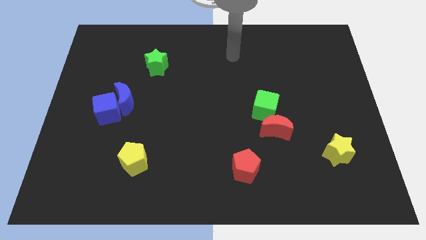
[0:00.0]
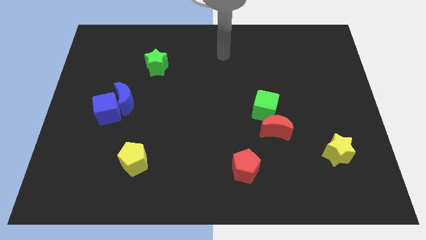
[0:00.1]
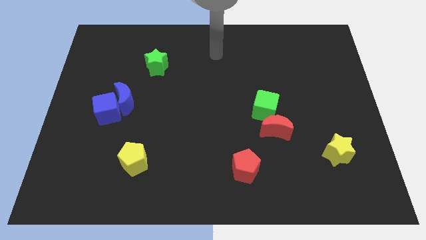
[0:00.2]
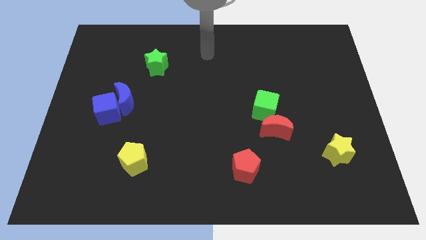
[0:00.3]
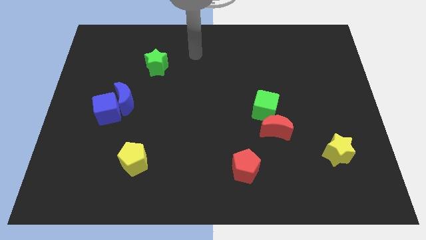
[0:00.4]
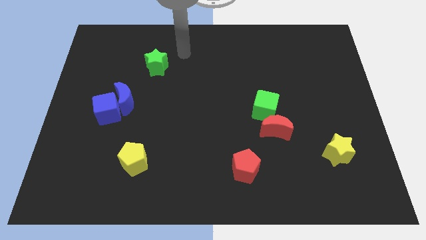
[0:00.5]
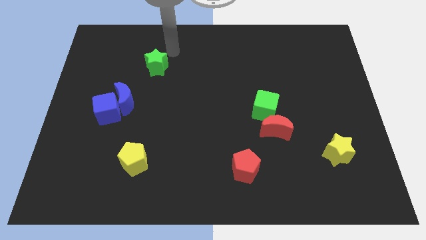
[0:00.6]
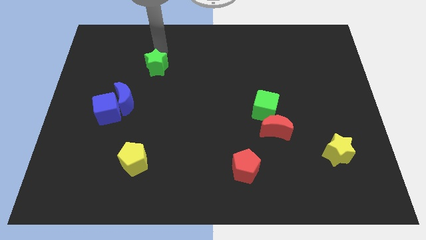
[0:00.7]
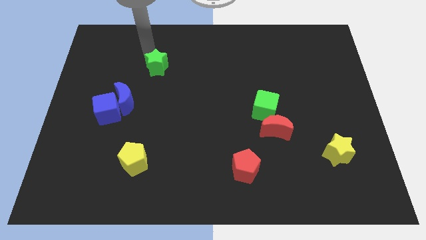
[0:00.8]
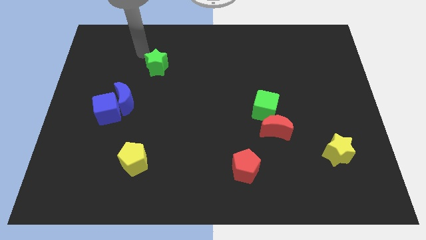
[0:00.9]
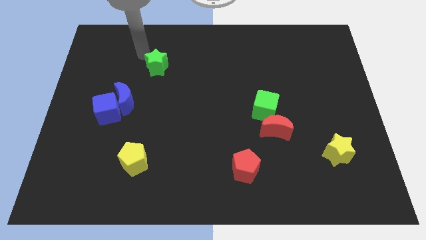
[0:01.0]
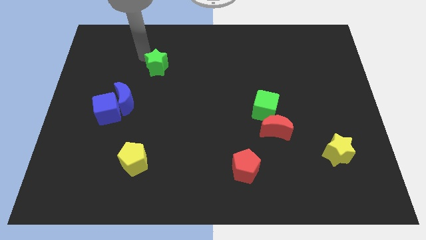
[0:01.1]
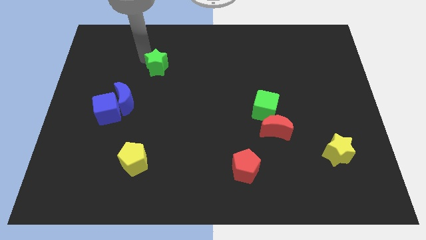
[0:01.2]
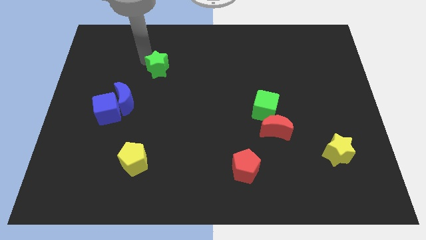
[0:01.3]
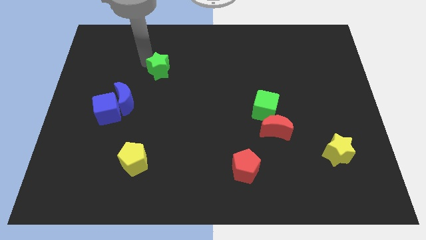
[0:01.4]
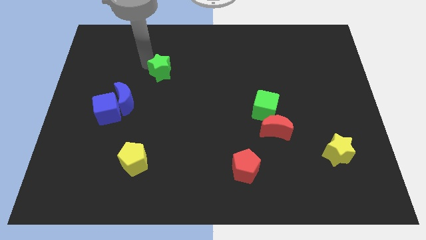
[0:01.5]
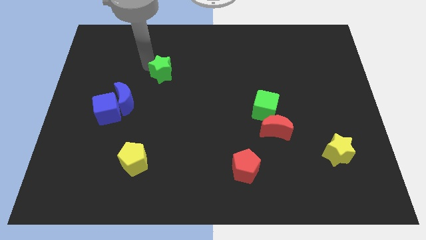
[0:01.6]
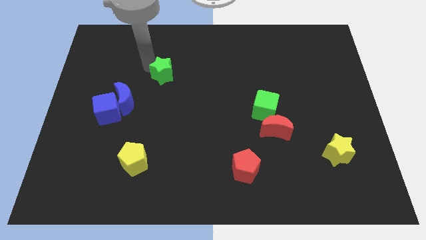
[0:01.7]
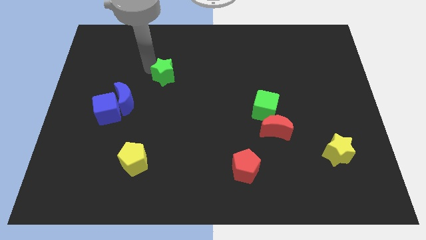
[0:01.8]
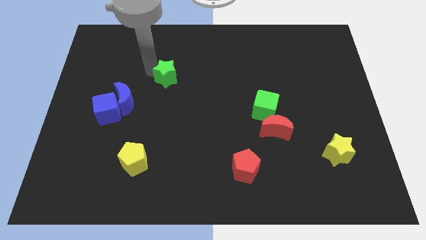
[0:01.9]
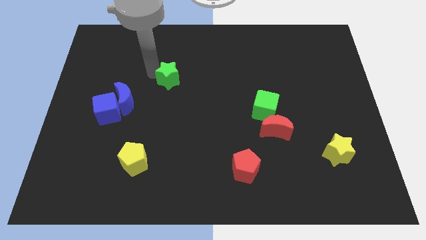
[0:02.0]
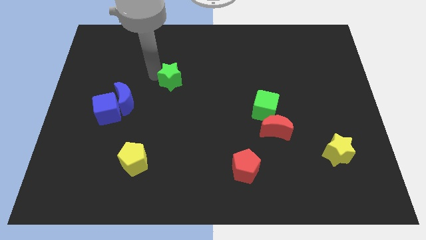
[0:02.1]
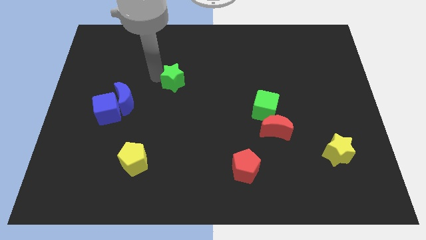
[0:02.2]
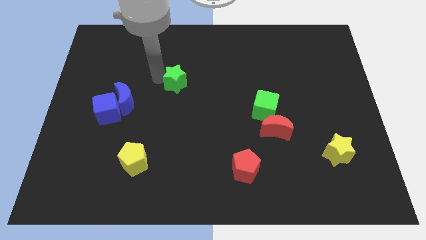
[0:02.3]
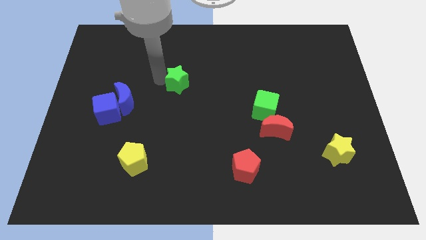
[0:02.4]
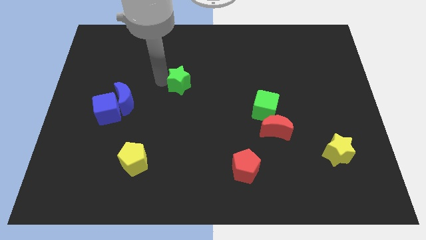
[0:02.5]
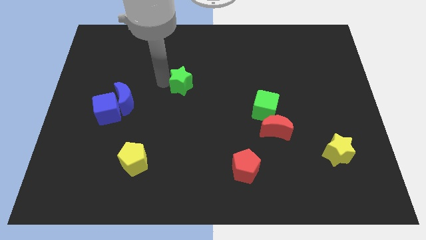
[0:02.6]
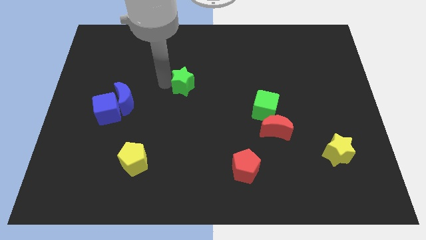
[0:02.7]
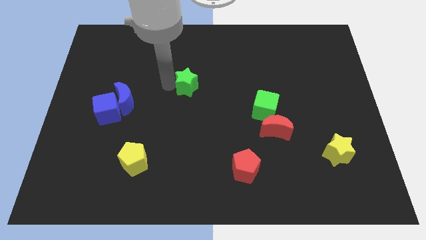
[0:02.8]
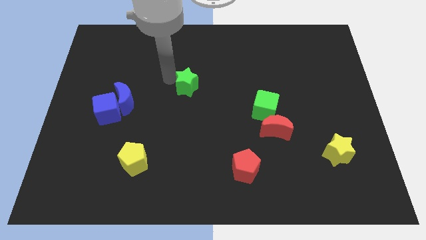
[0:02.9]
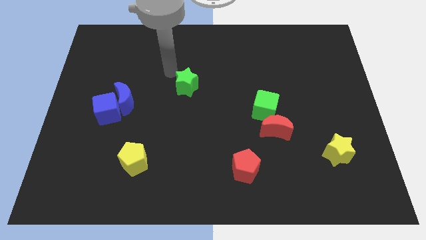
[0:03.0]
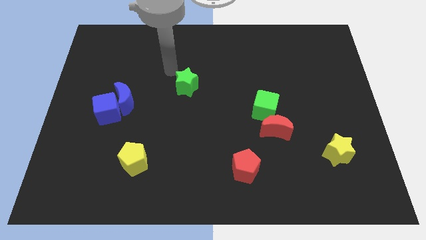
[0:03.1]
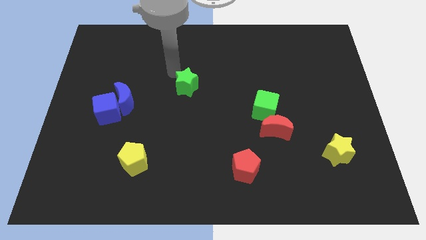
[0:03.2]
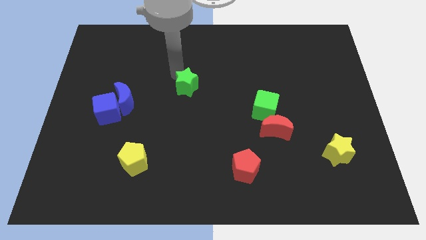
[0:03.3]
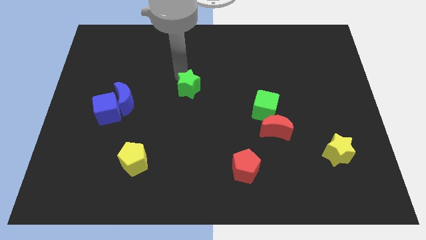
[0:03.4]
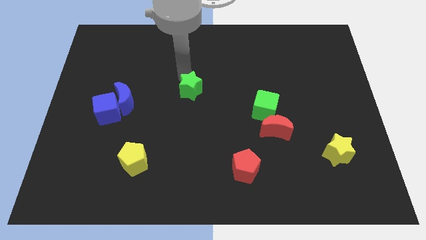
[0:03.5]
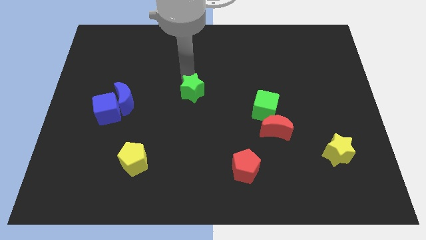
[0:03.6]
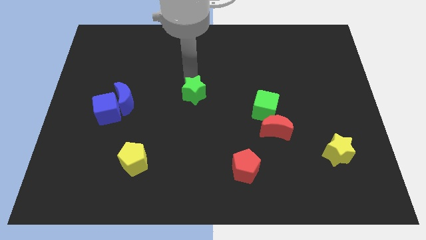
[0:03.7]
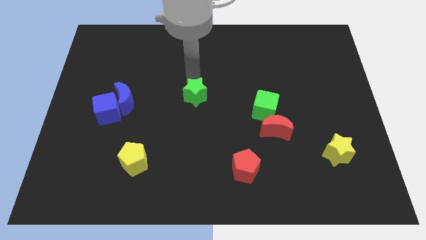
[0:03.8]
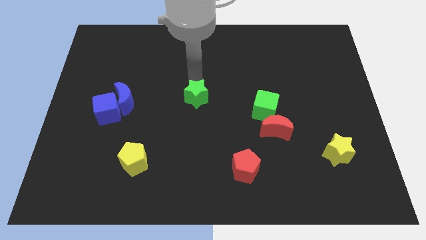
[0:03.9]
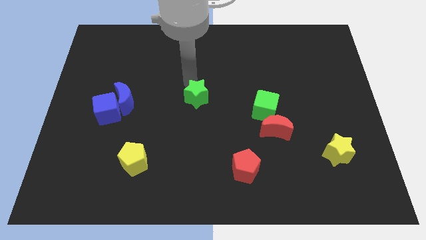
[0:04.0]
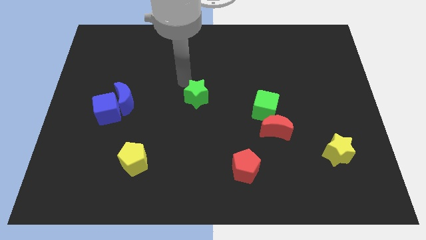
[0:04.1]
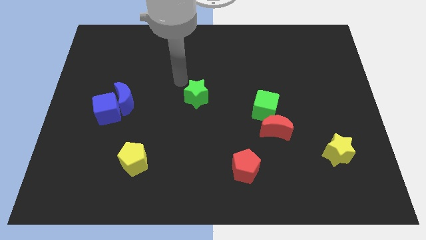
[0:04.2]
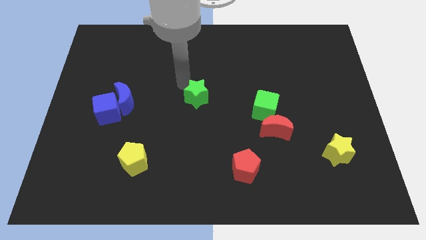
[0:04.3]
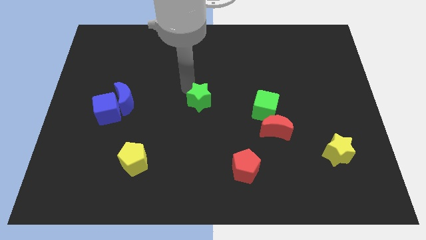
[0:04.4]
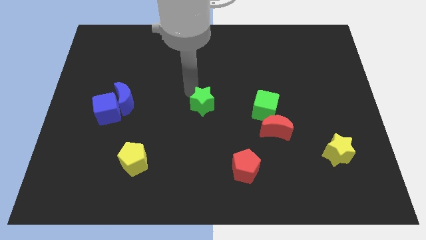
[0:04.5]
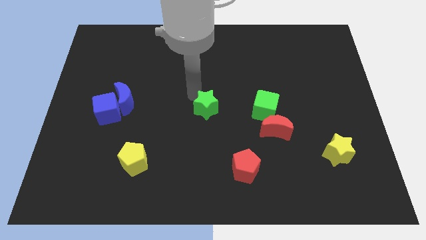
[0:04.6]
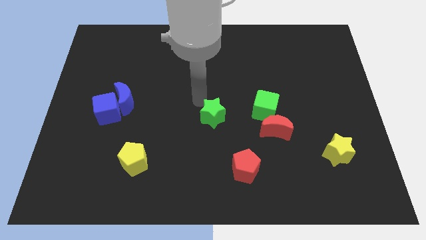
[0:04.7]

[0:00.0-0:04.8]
put the green star to the left of the red moon

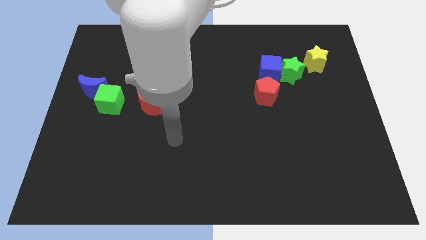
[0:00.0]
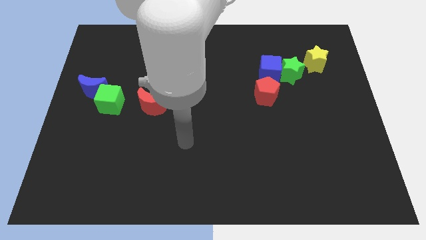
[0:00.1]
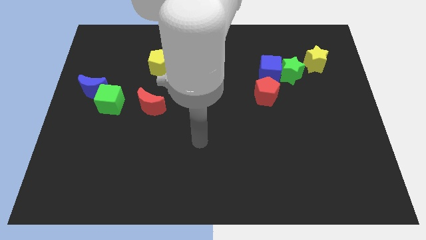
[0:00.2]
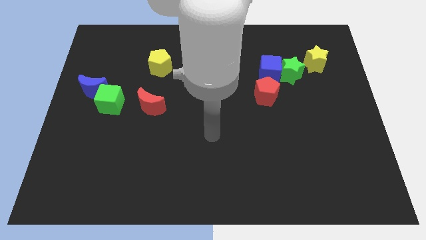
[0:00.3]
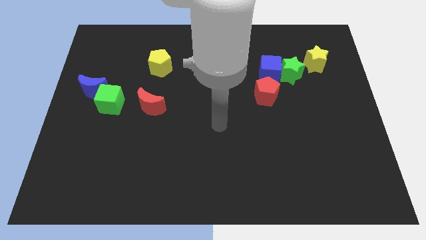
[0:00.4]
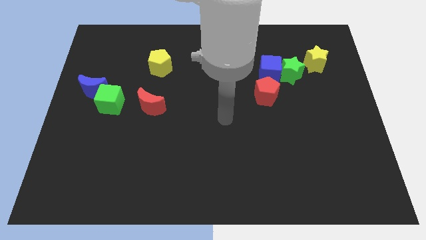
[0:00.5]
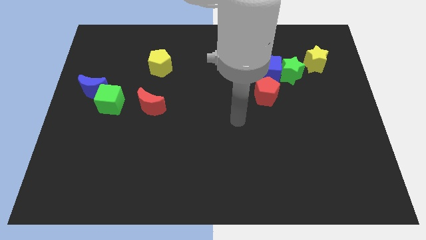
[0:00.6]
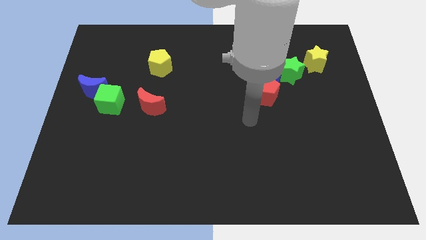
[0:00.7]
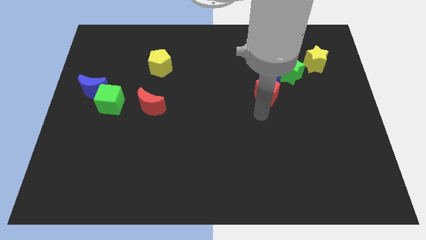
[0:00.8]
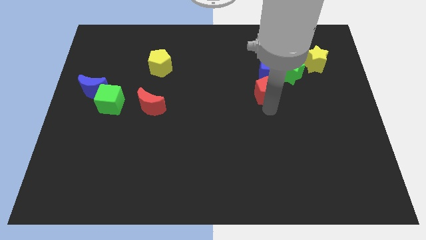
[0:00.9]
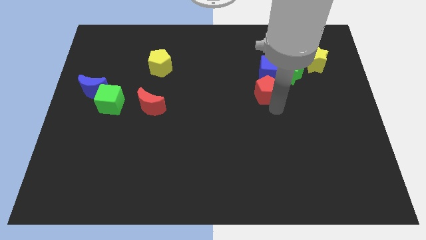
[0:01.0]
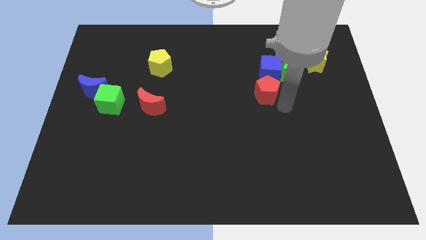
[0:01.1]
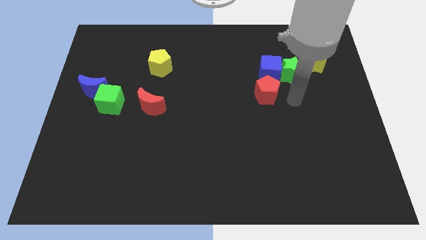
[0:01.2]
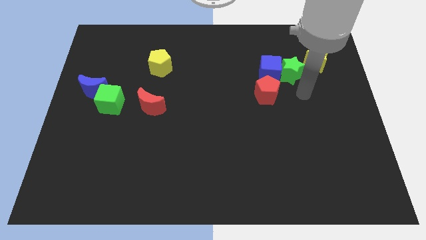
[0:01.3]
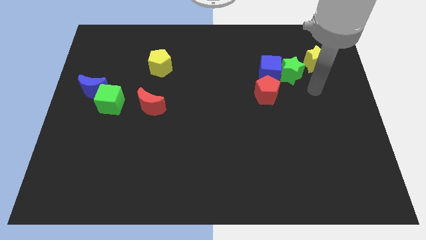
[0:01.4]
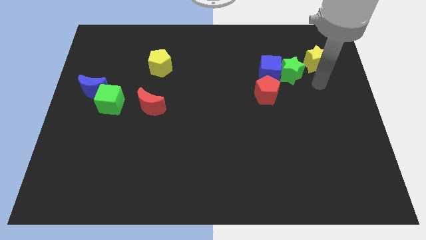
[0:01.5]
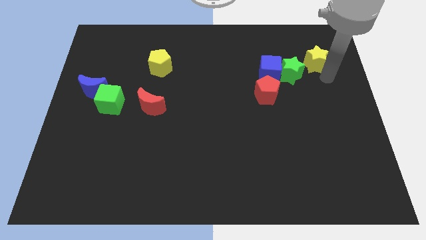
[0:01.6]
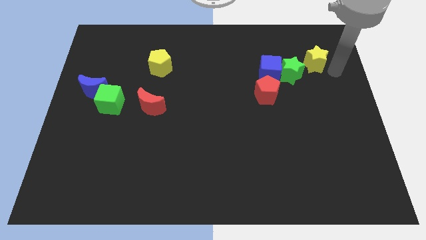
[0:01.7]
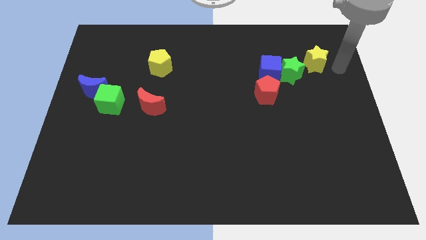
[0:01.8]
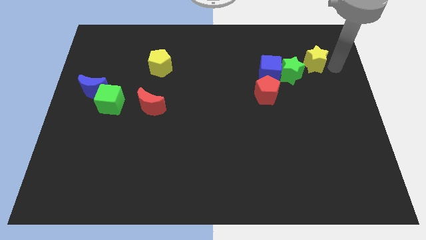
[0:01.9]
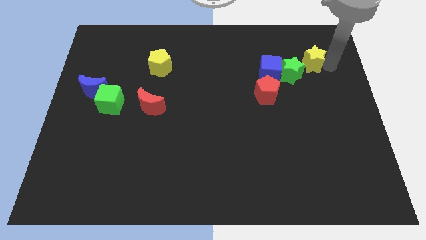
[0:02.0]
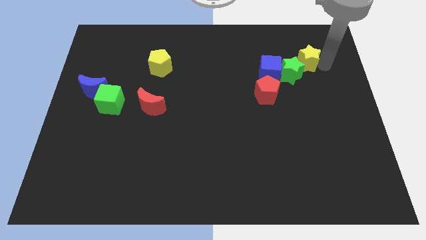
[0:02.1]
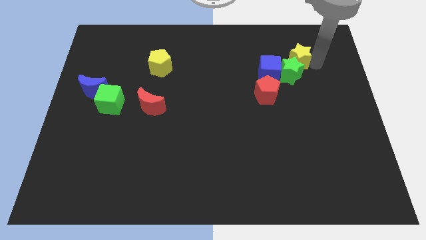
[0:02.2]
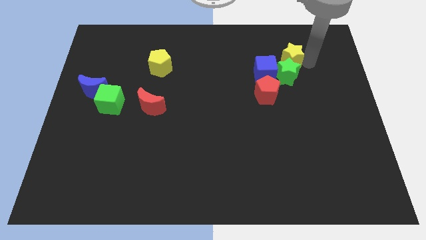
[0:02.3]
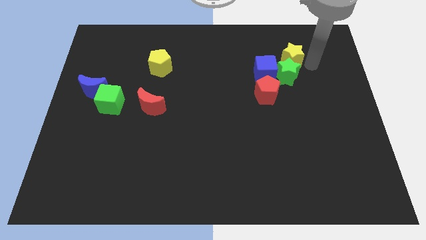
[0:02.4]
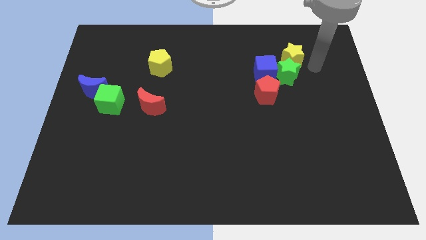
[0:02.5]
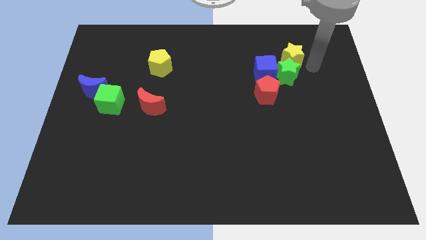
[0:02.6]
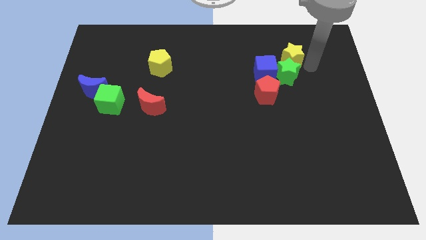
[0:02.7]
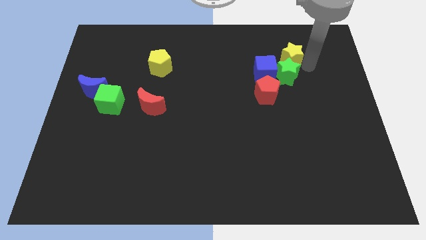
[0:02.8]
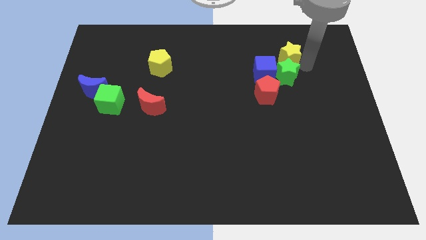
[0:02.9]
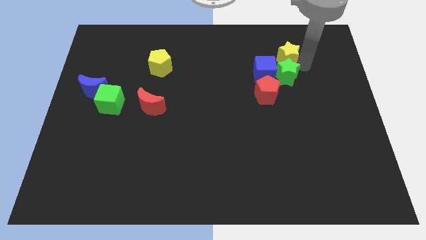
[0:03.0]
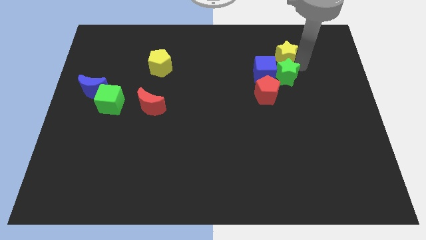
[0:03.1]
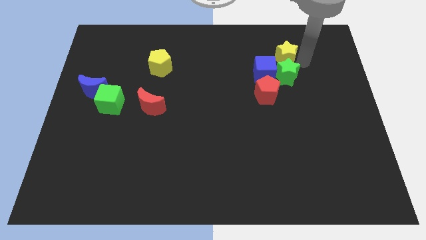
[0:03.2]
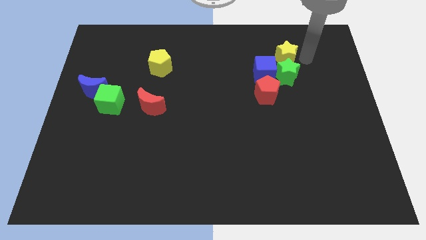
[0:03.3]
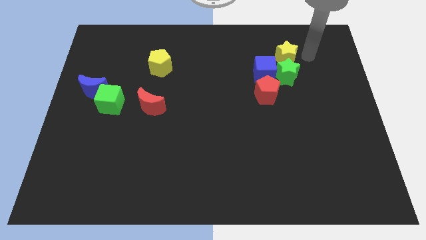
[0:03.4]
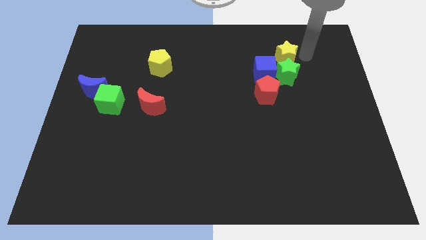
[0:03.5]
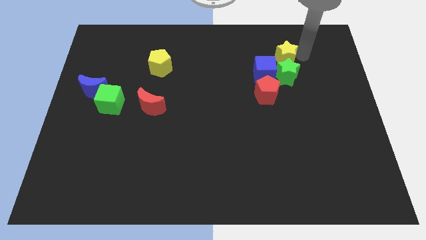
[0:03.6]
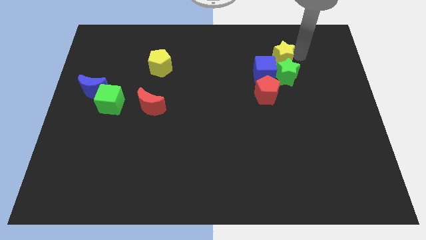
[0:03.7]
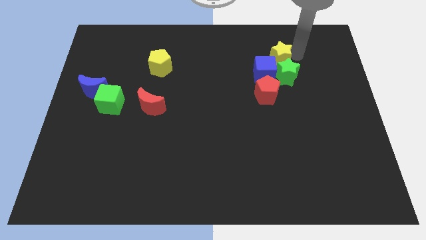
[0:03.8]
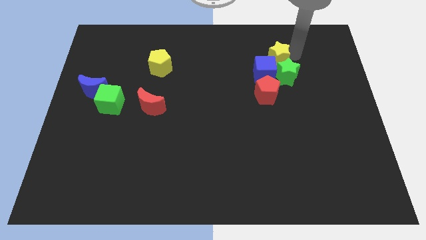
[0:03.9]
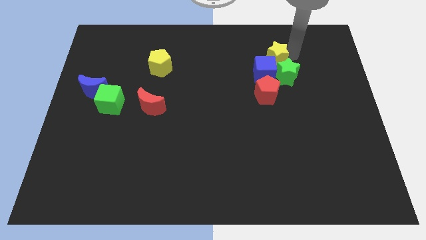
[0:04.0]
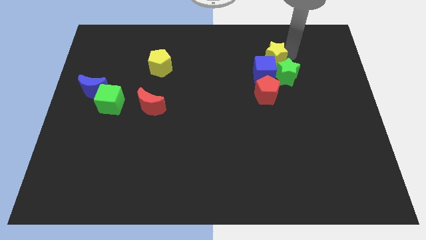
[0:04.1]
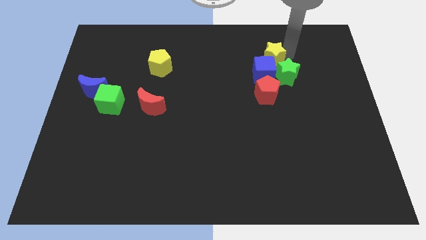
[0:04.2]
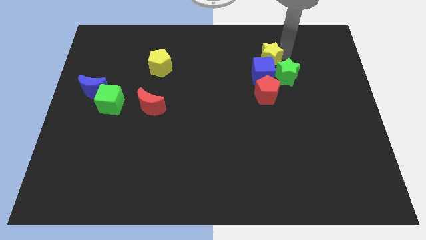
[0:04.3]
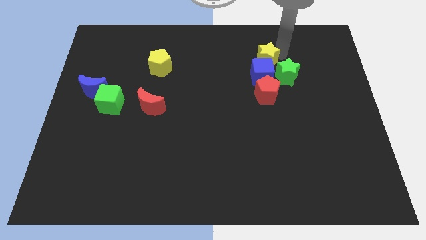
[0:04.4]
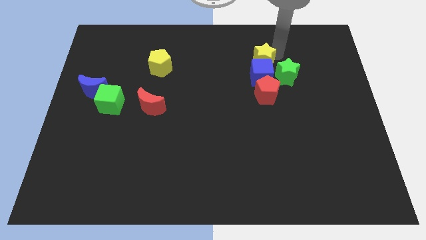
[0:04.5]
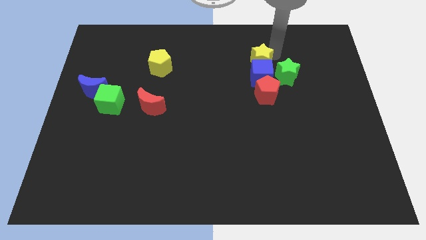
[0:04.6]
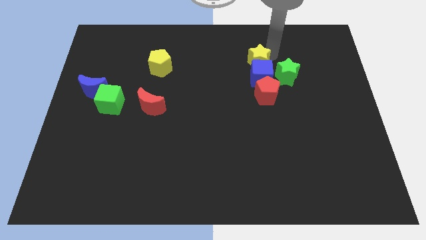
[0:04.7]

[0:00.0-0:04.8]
push the yellow star to the left side of the green star
